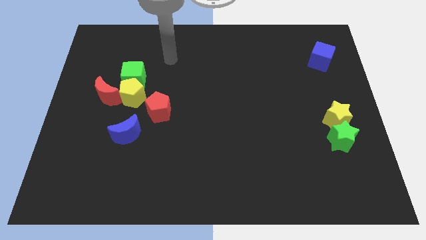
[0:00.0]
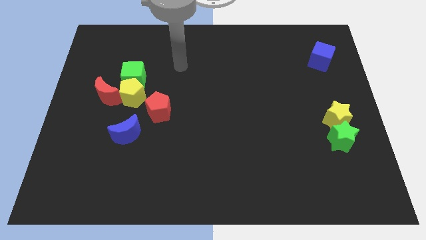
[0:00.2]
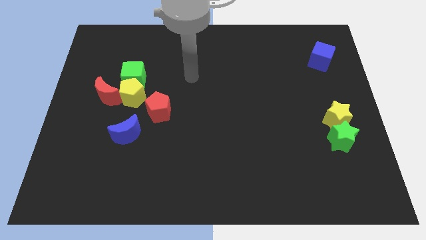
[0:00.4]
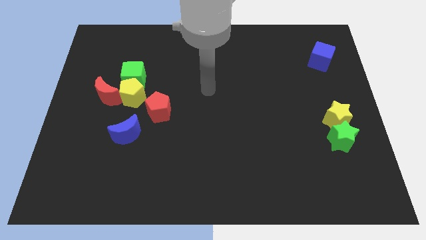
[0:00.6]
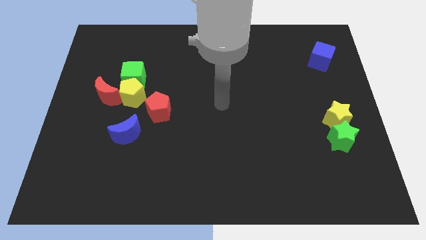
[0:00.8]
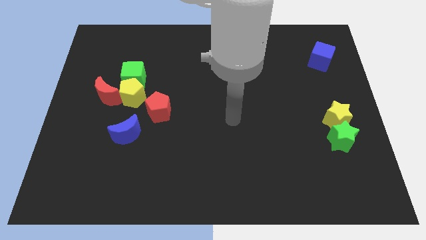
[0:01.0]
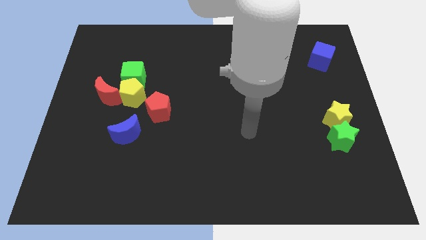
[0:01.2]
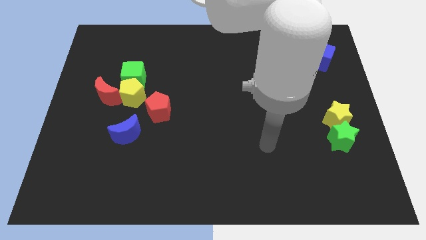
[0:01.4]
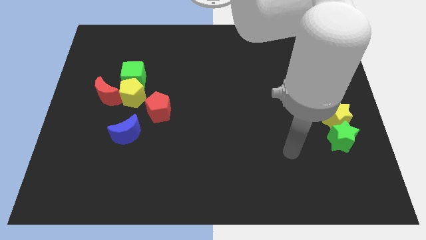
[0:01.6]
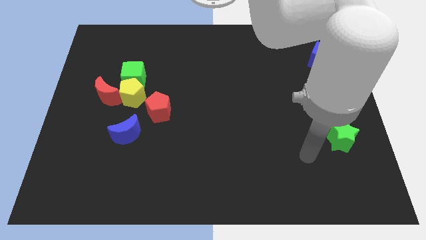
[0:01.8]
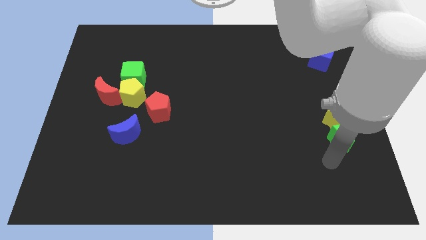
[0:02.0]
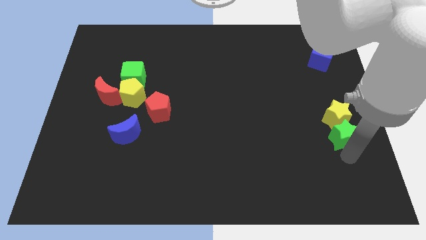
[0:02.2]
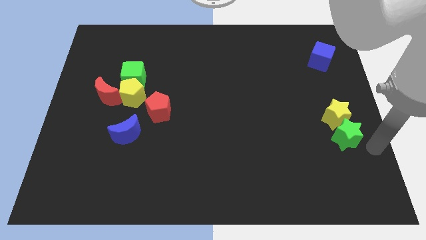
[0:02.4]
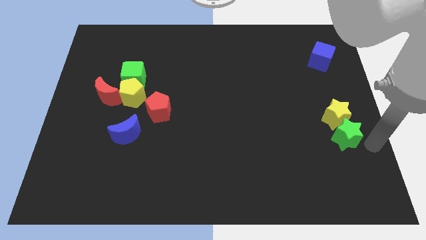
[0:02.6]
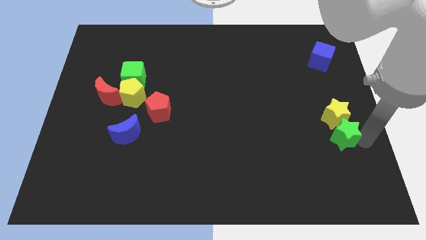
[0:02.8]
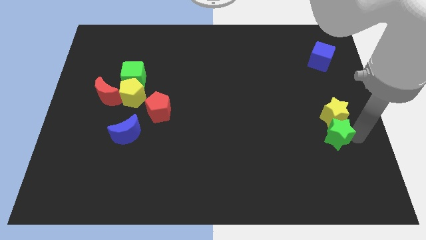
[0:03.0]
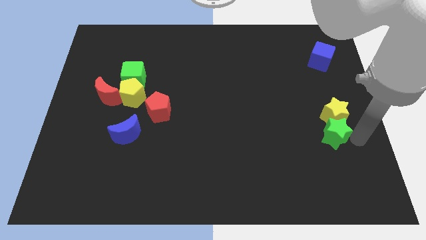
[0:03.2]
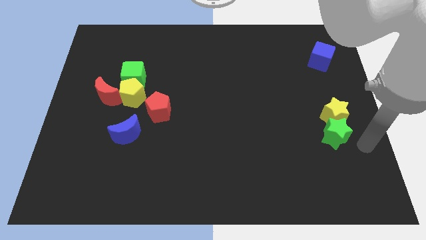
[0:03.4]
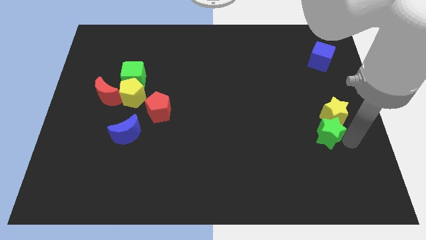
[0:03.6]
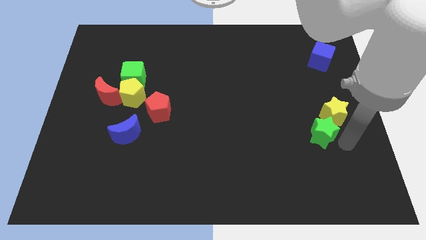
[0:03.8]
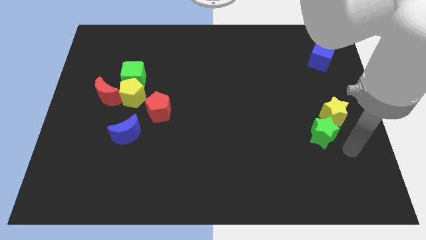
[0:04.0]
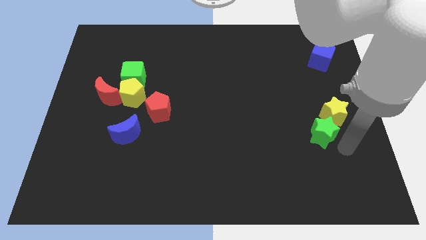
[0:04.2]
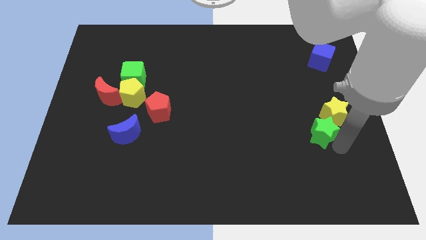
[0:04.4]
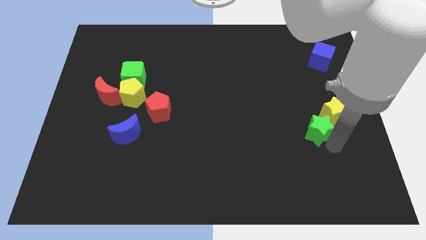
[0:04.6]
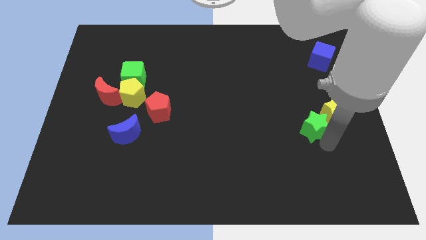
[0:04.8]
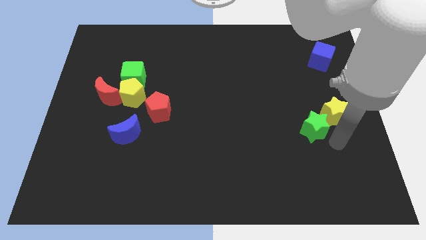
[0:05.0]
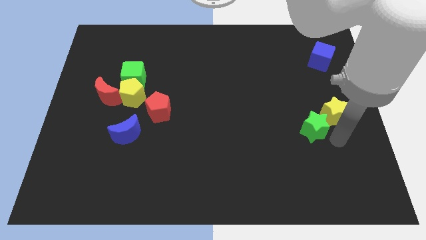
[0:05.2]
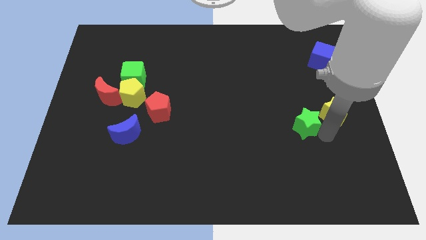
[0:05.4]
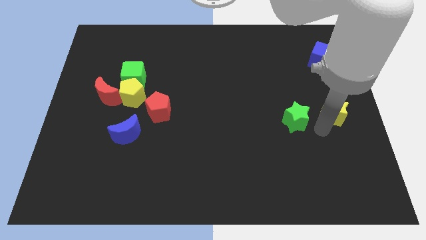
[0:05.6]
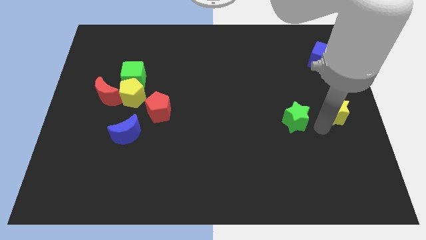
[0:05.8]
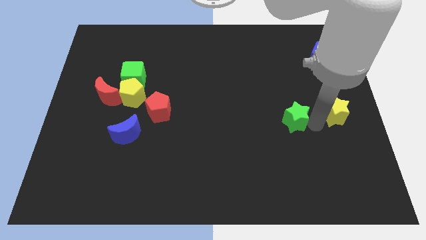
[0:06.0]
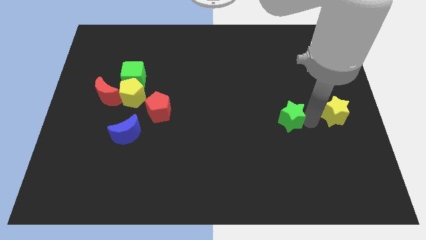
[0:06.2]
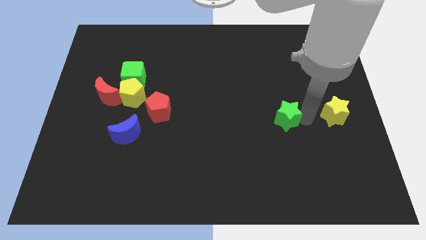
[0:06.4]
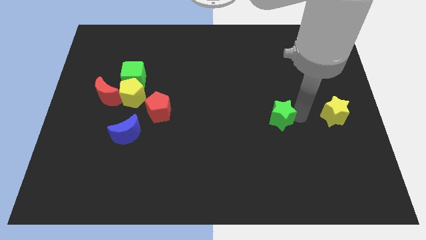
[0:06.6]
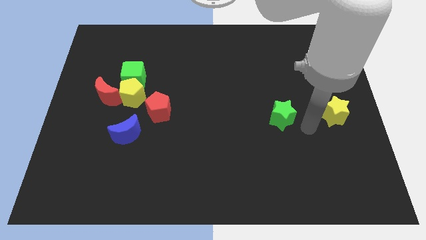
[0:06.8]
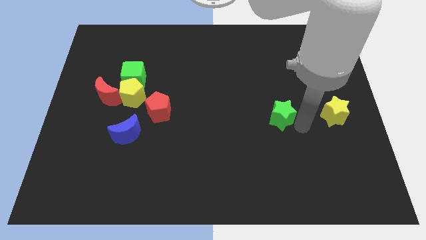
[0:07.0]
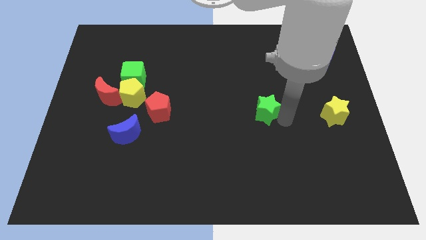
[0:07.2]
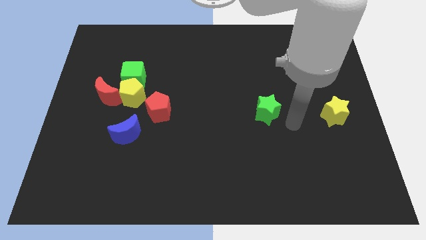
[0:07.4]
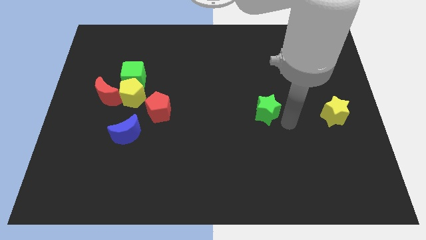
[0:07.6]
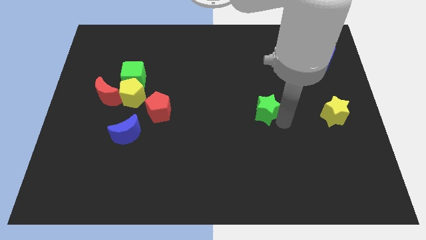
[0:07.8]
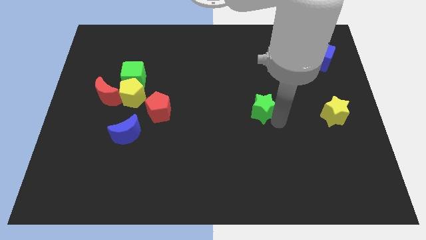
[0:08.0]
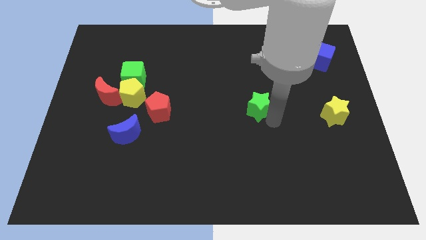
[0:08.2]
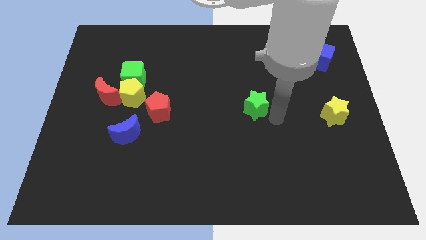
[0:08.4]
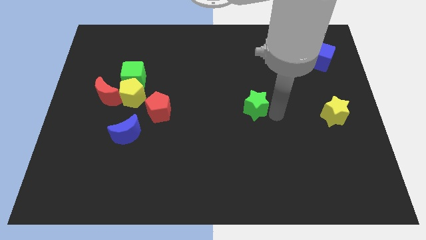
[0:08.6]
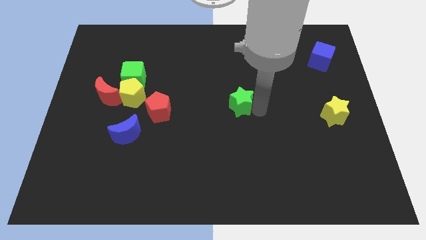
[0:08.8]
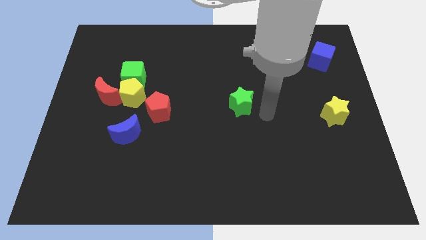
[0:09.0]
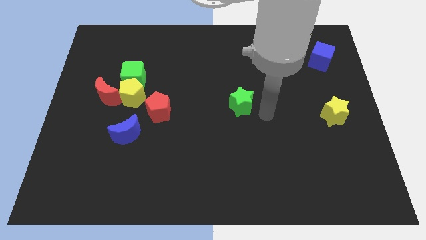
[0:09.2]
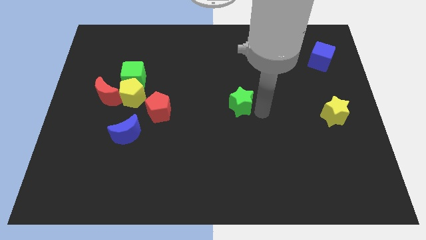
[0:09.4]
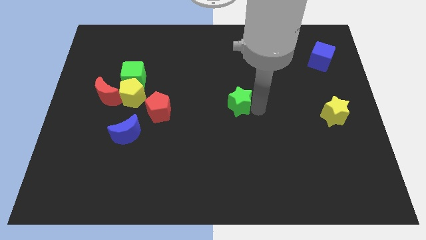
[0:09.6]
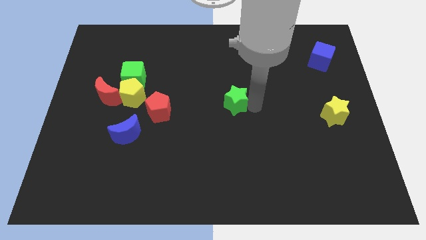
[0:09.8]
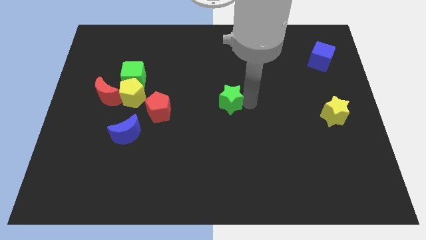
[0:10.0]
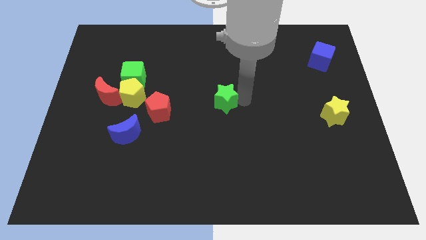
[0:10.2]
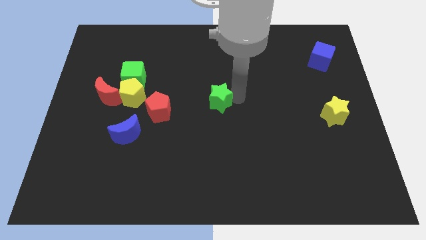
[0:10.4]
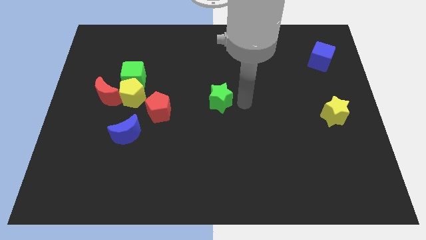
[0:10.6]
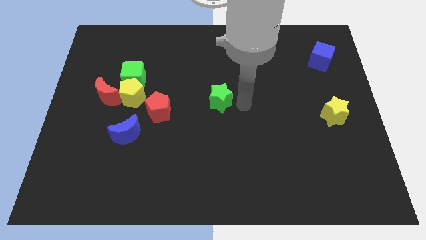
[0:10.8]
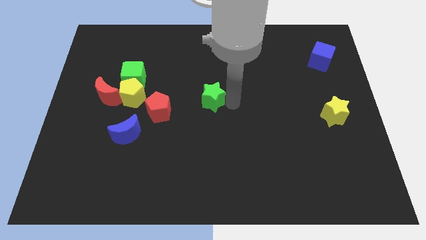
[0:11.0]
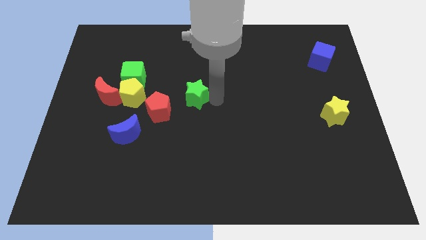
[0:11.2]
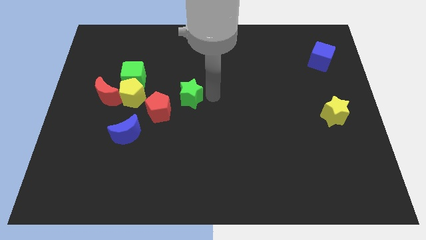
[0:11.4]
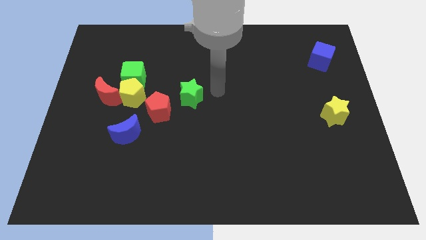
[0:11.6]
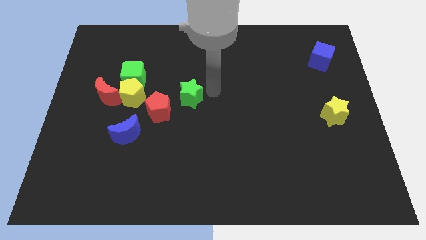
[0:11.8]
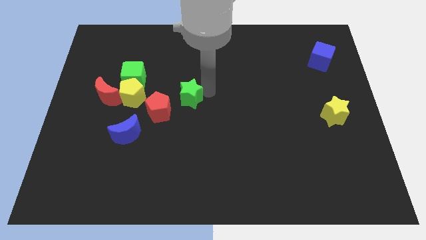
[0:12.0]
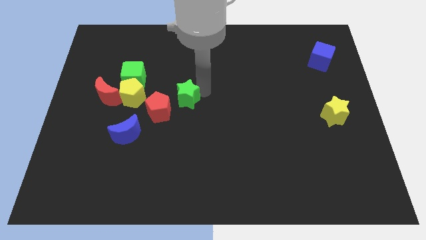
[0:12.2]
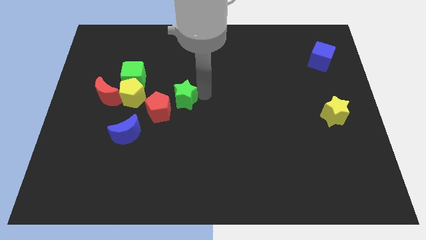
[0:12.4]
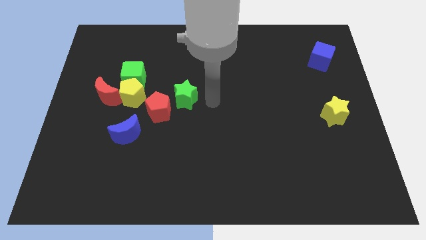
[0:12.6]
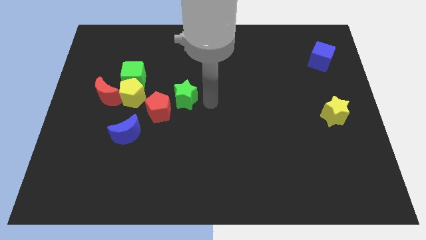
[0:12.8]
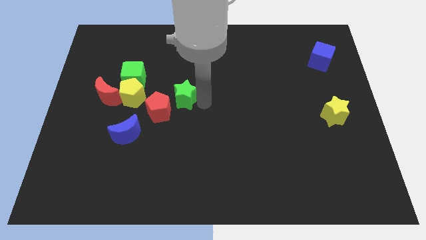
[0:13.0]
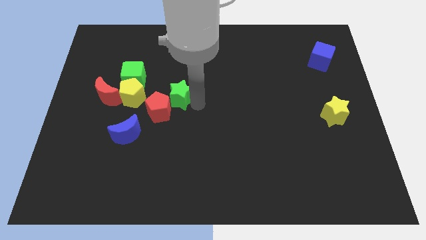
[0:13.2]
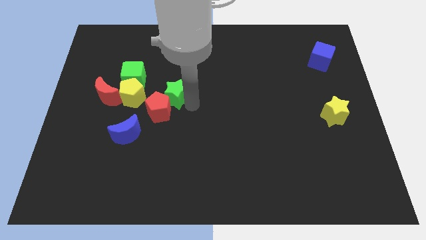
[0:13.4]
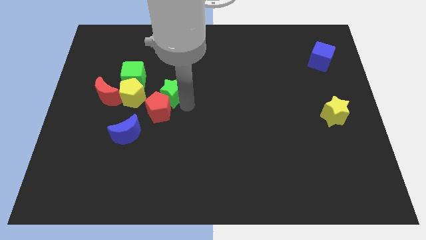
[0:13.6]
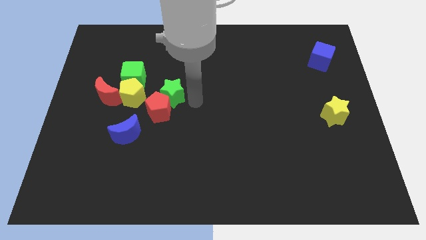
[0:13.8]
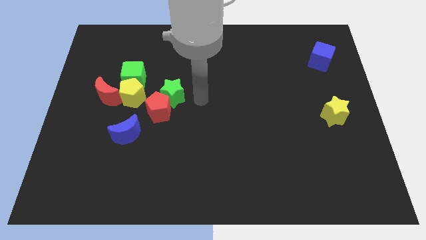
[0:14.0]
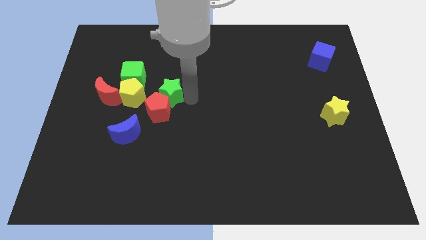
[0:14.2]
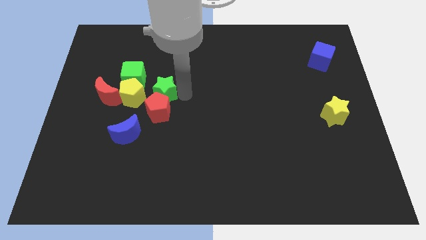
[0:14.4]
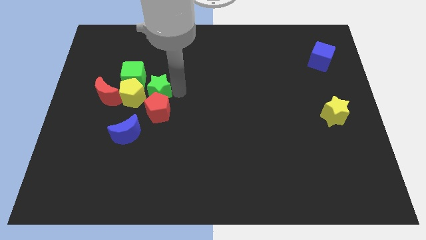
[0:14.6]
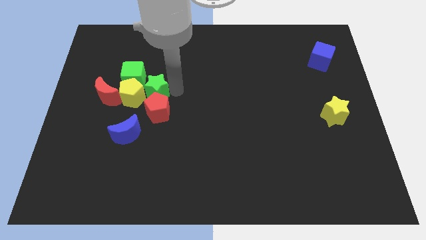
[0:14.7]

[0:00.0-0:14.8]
push the green star next to the yellow pentagon
